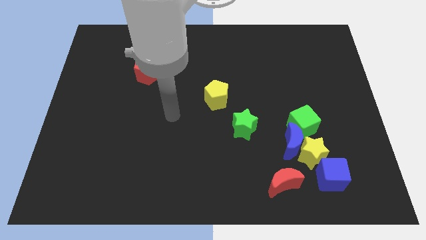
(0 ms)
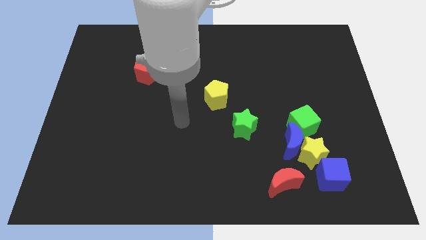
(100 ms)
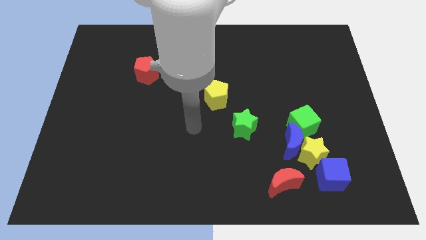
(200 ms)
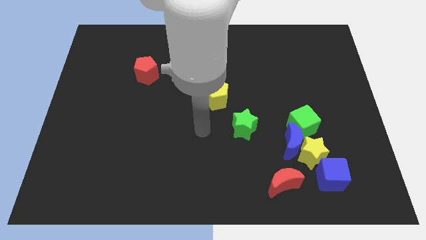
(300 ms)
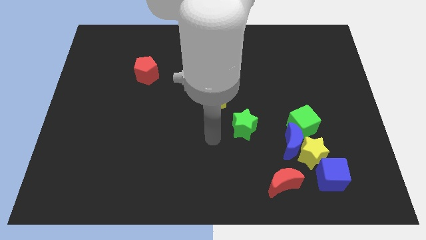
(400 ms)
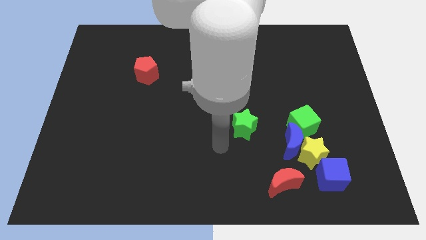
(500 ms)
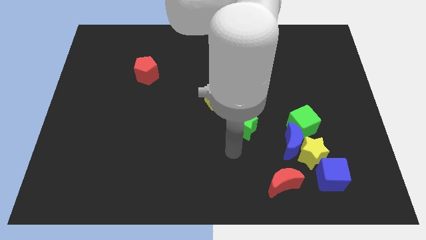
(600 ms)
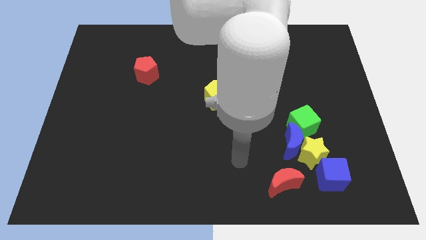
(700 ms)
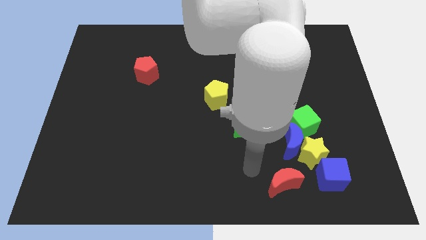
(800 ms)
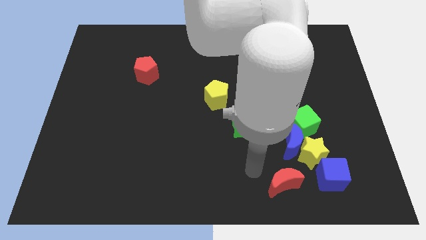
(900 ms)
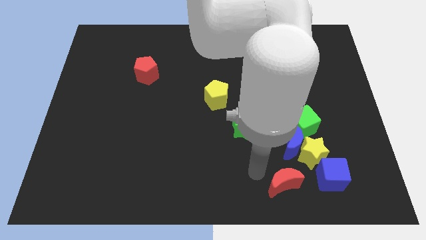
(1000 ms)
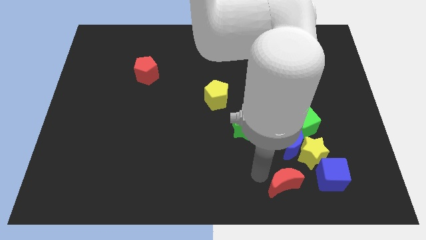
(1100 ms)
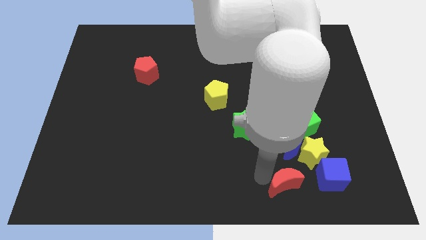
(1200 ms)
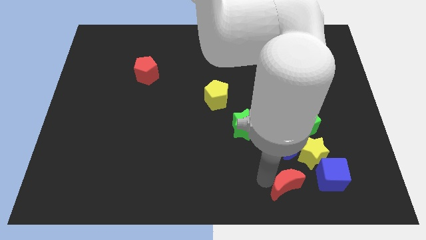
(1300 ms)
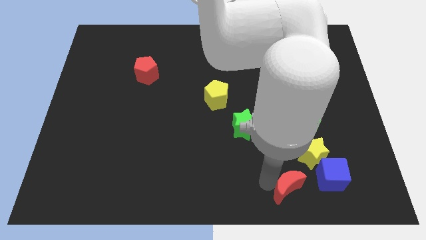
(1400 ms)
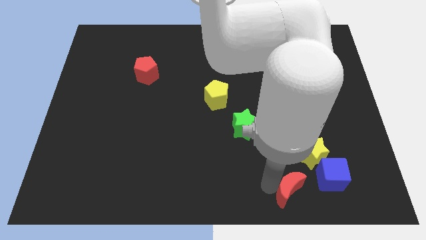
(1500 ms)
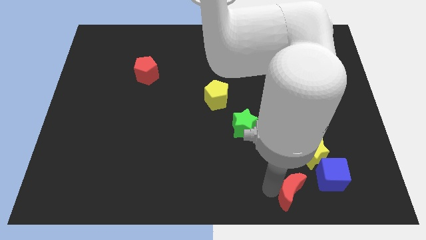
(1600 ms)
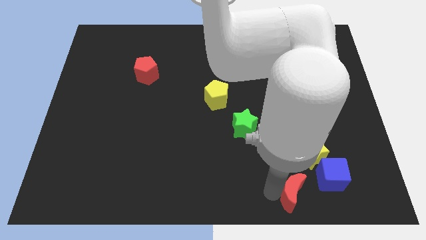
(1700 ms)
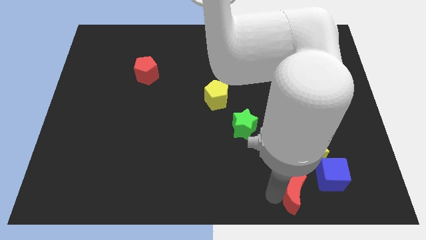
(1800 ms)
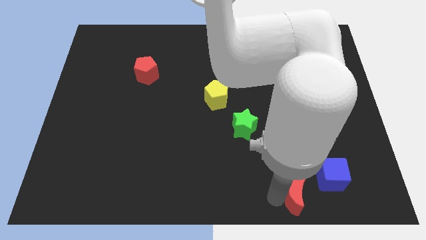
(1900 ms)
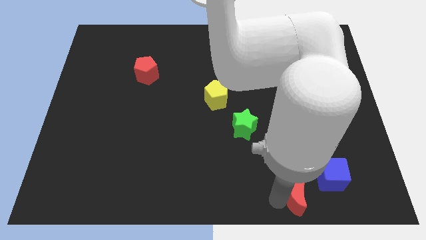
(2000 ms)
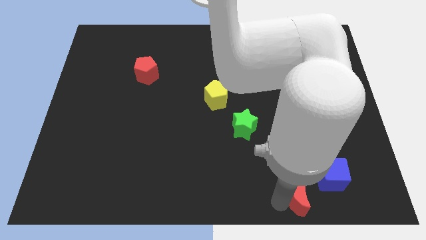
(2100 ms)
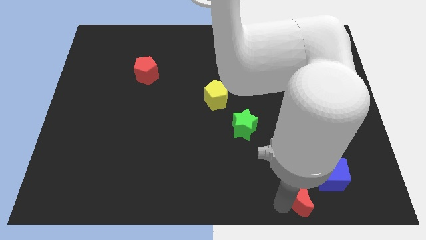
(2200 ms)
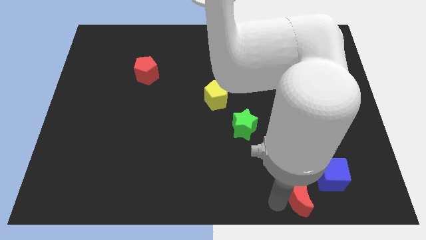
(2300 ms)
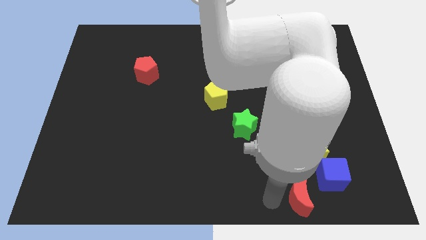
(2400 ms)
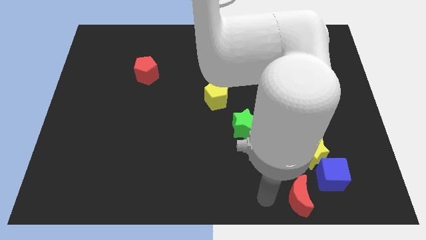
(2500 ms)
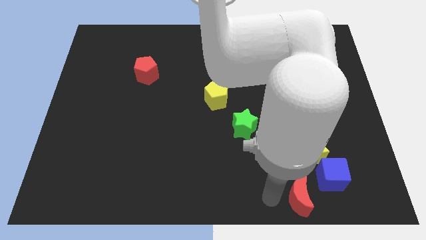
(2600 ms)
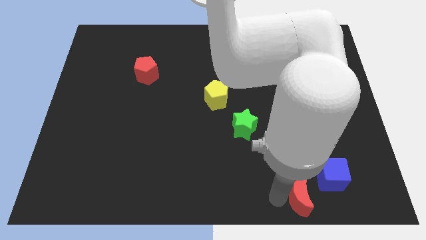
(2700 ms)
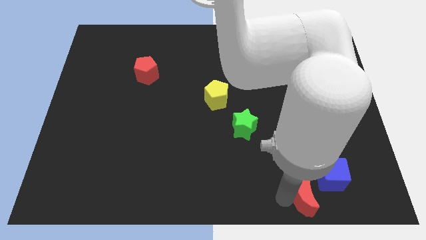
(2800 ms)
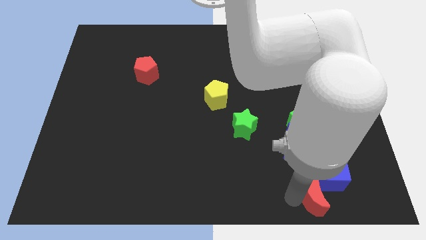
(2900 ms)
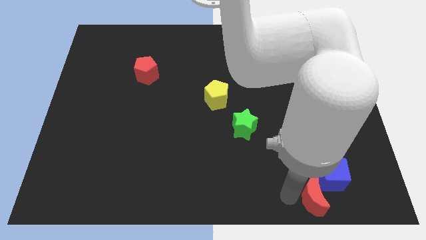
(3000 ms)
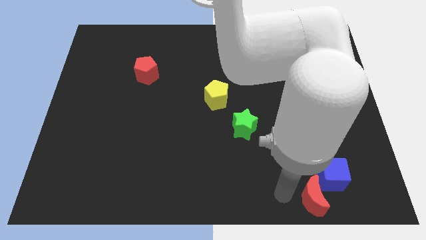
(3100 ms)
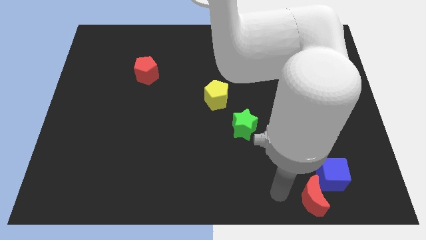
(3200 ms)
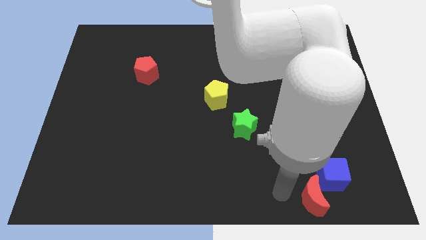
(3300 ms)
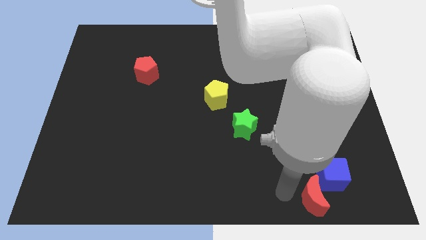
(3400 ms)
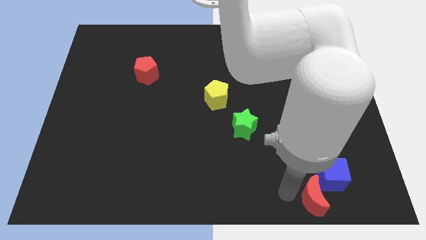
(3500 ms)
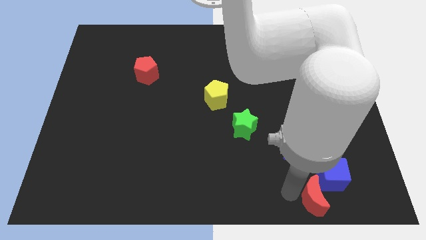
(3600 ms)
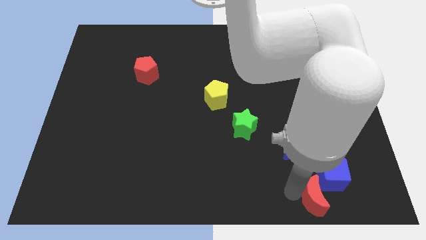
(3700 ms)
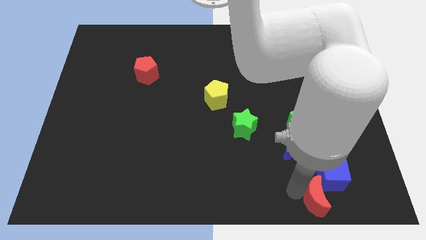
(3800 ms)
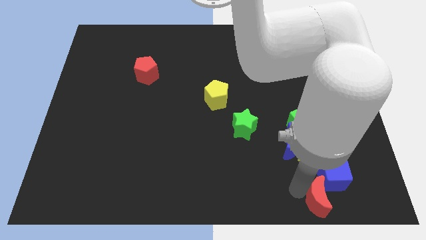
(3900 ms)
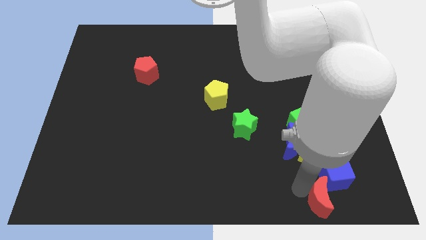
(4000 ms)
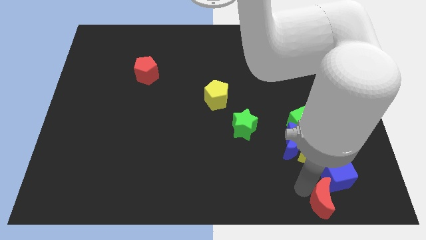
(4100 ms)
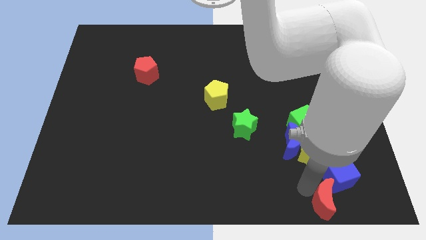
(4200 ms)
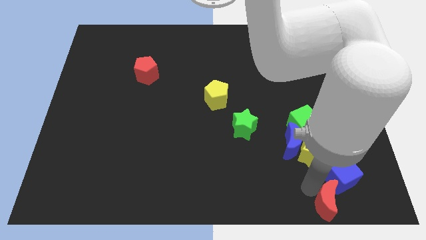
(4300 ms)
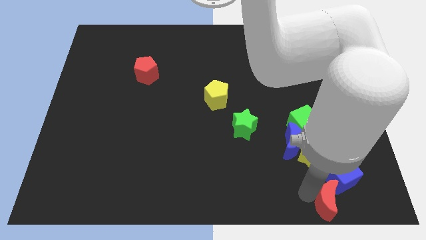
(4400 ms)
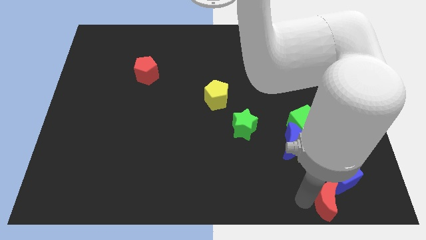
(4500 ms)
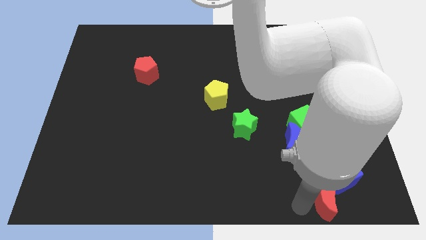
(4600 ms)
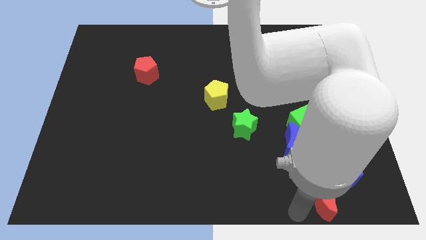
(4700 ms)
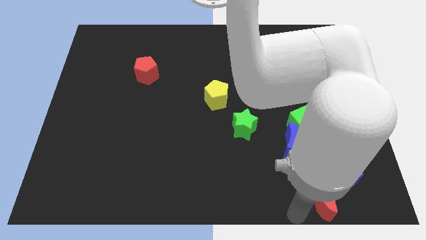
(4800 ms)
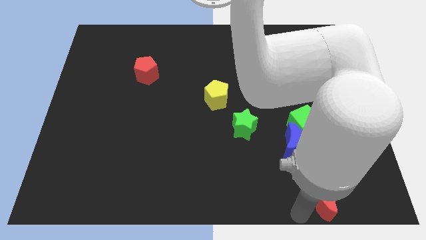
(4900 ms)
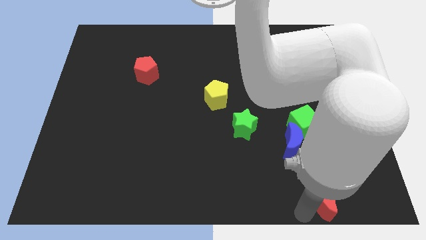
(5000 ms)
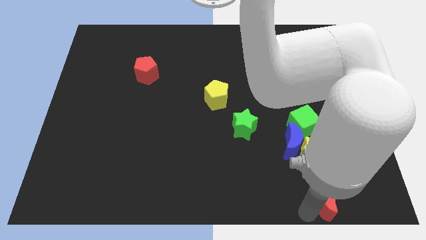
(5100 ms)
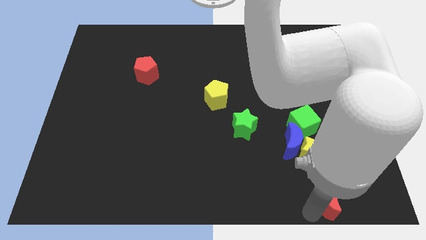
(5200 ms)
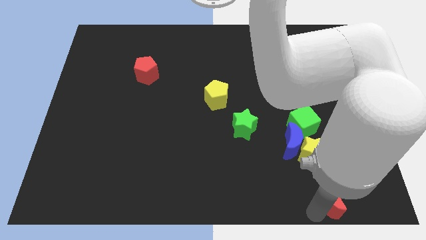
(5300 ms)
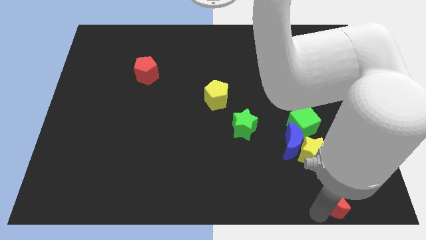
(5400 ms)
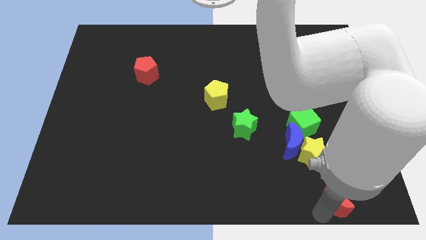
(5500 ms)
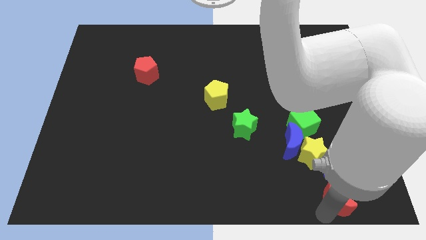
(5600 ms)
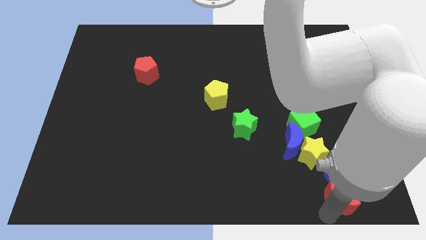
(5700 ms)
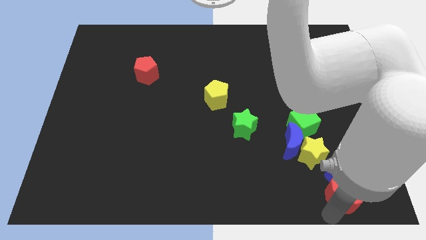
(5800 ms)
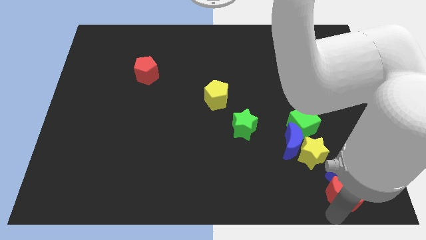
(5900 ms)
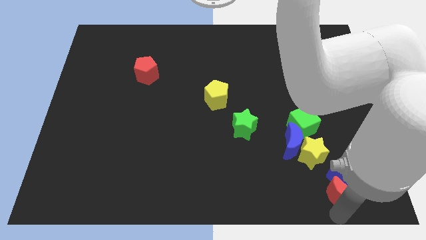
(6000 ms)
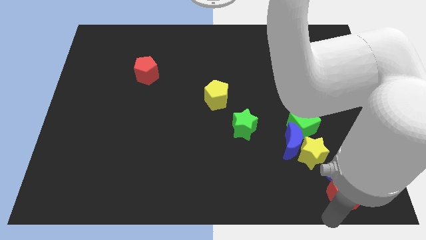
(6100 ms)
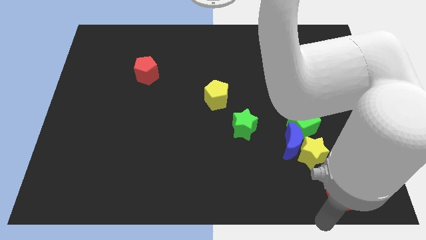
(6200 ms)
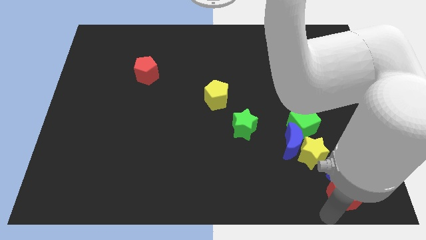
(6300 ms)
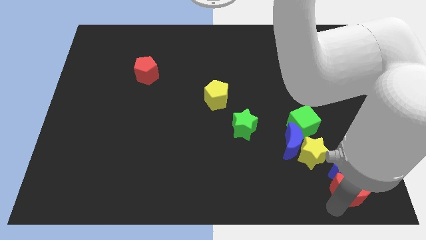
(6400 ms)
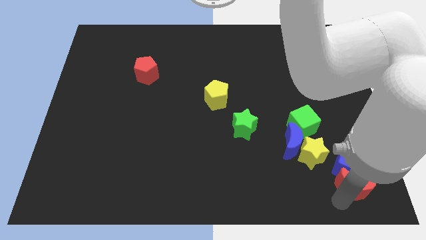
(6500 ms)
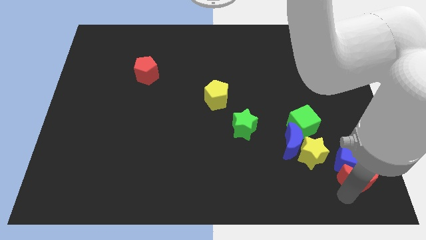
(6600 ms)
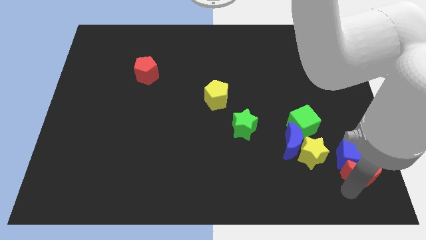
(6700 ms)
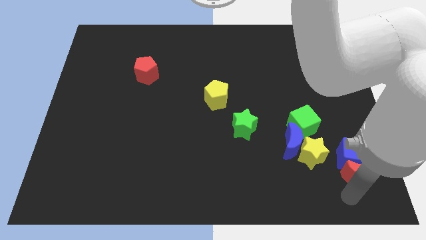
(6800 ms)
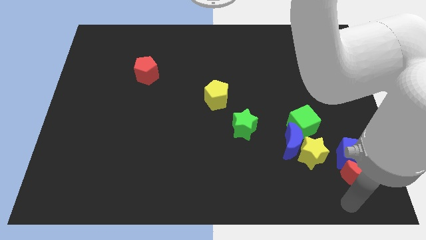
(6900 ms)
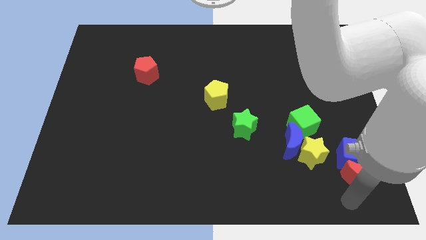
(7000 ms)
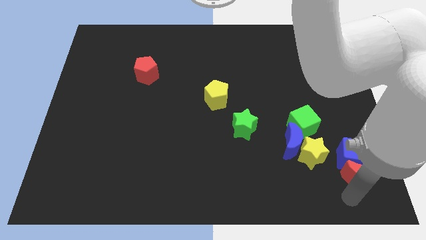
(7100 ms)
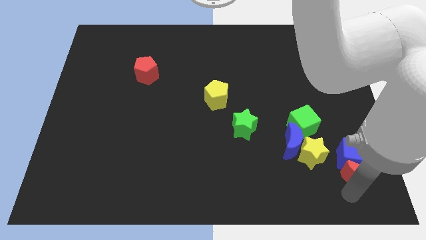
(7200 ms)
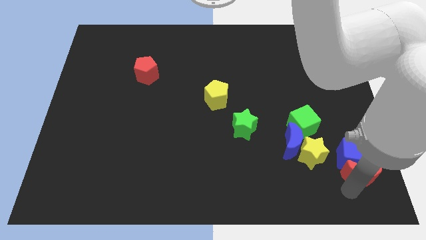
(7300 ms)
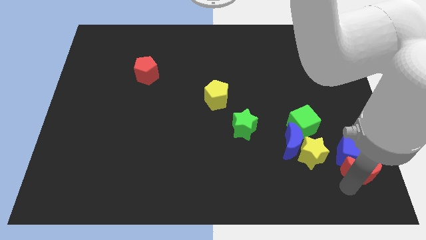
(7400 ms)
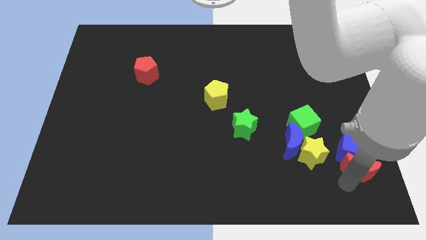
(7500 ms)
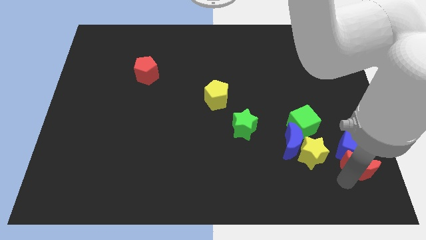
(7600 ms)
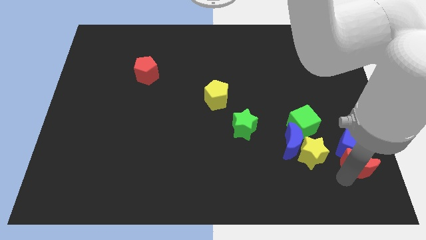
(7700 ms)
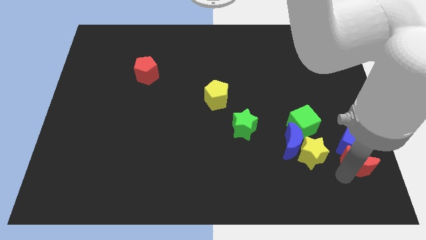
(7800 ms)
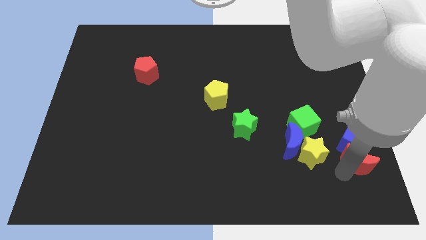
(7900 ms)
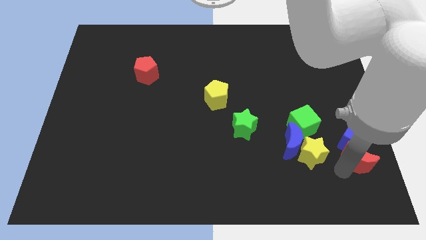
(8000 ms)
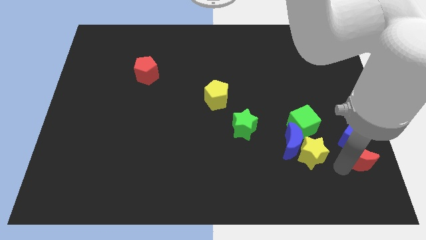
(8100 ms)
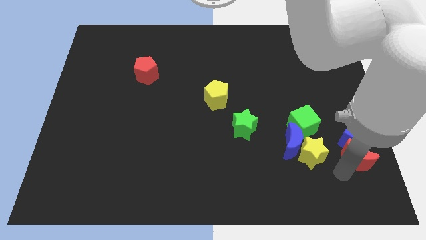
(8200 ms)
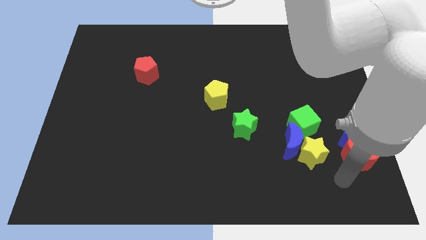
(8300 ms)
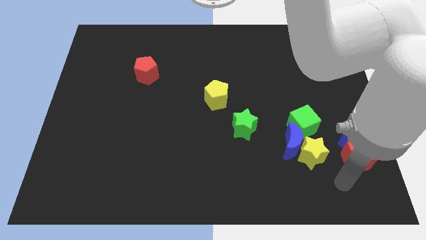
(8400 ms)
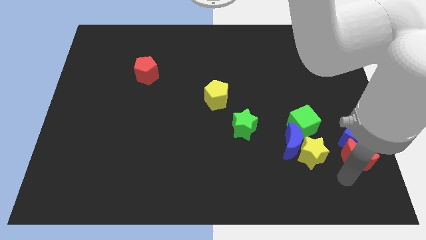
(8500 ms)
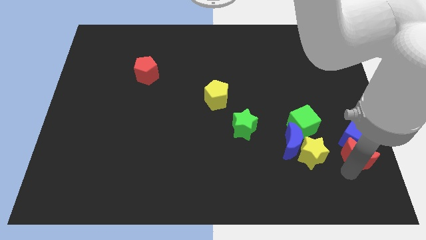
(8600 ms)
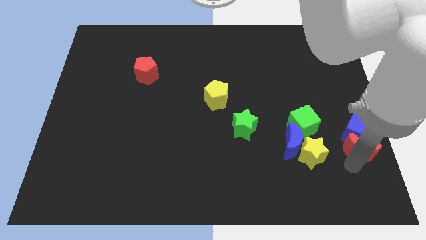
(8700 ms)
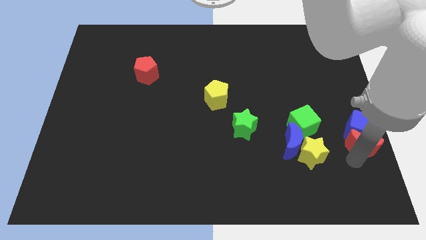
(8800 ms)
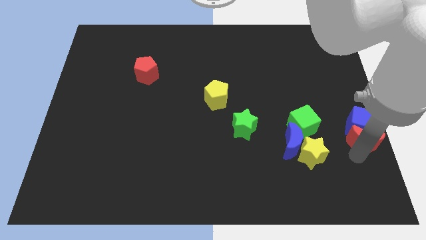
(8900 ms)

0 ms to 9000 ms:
slide the red moon to the center right
